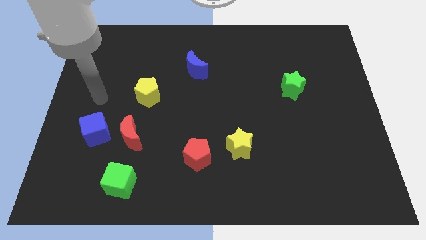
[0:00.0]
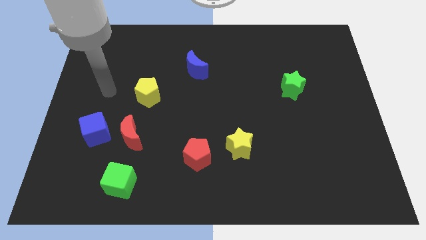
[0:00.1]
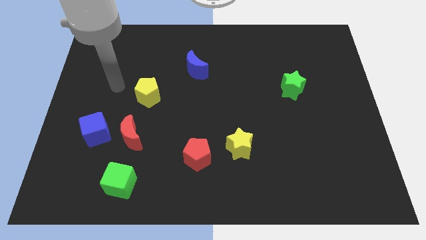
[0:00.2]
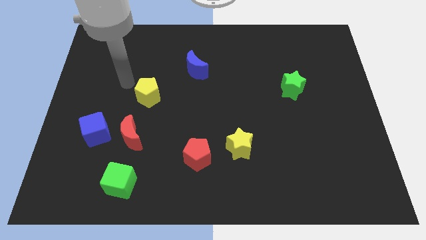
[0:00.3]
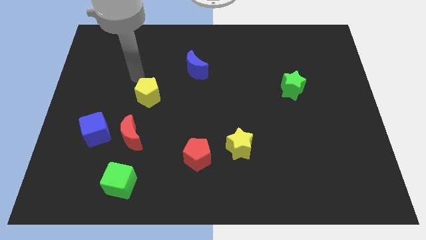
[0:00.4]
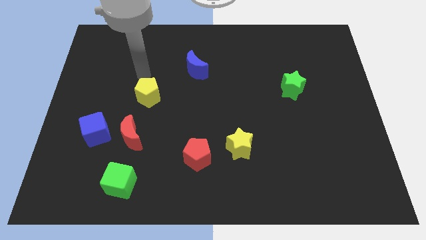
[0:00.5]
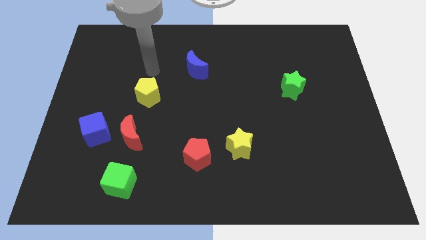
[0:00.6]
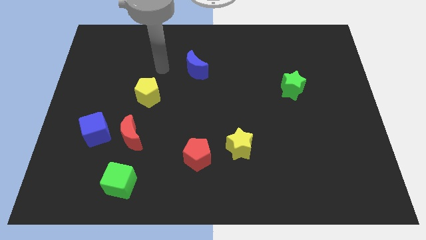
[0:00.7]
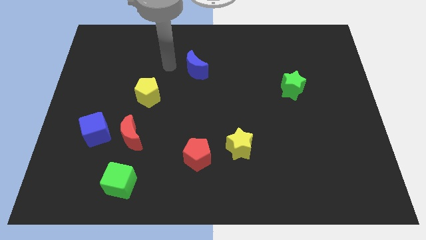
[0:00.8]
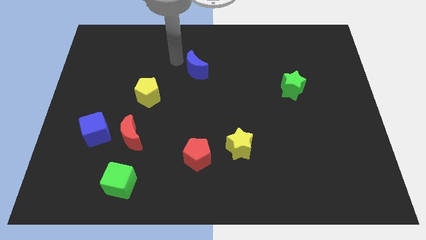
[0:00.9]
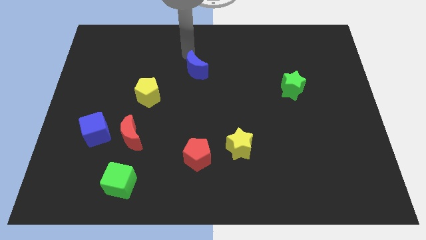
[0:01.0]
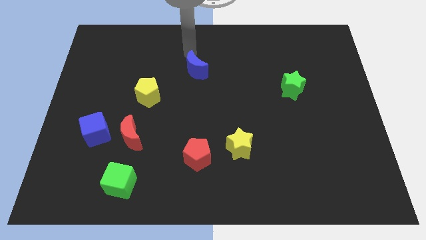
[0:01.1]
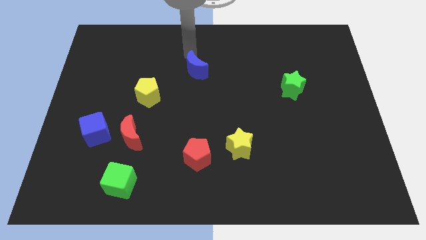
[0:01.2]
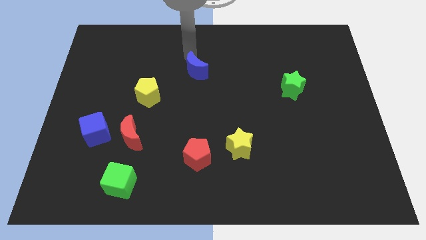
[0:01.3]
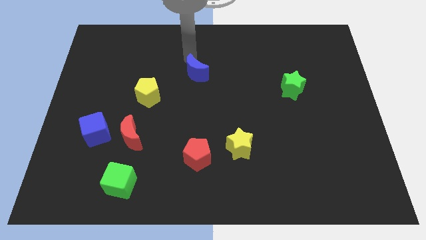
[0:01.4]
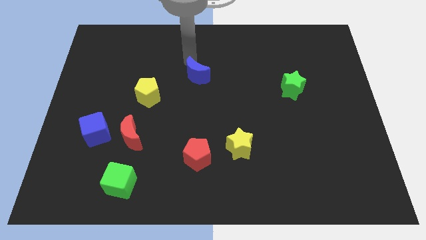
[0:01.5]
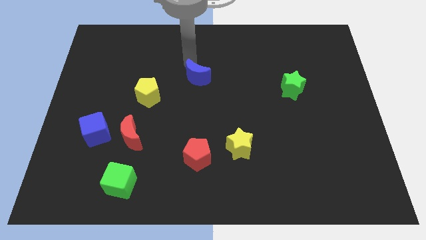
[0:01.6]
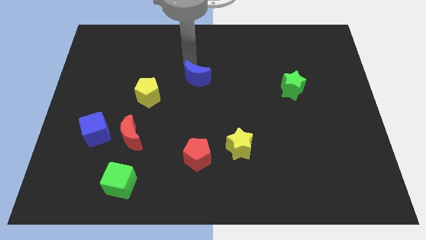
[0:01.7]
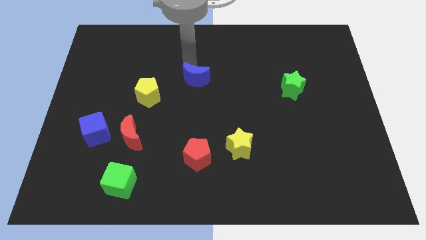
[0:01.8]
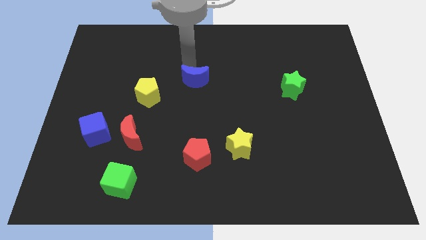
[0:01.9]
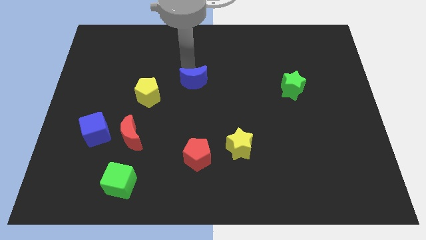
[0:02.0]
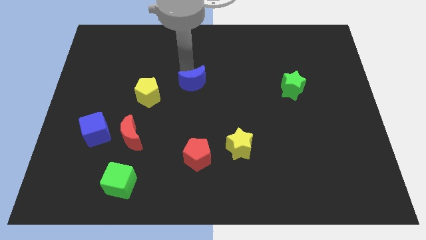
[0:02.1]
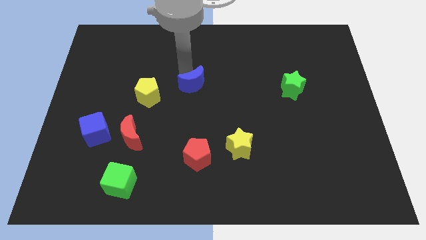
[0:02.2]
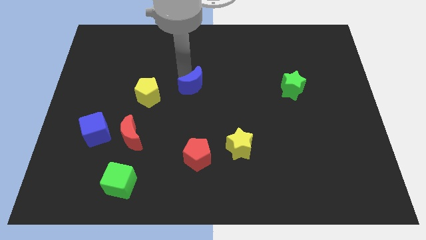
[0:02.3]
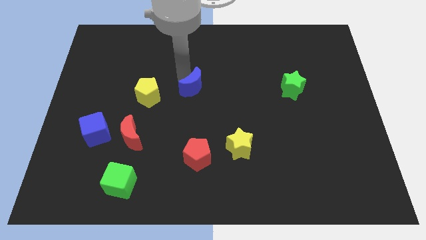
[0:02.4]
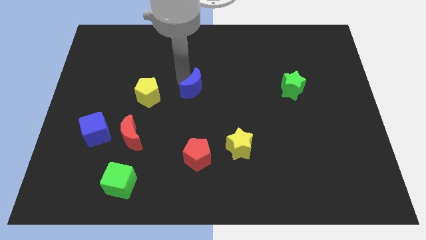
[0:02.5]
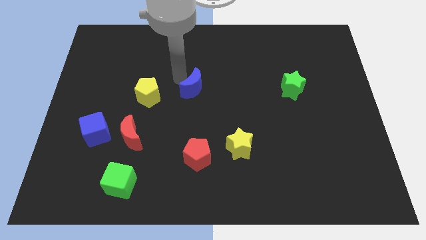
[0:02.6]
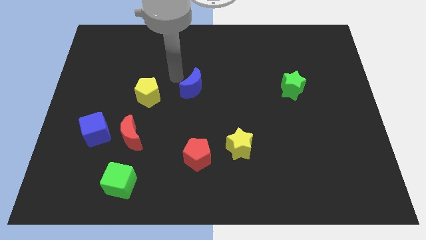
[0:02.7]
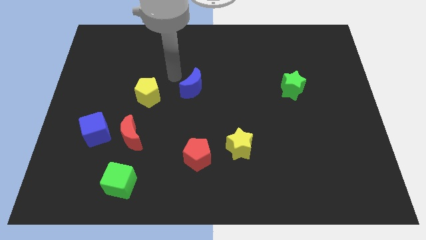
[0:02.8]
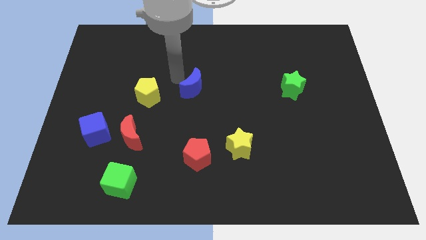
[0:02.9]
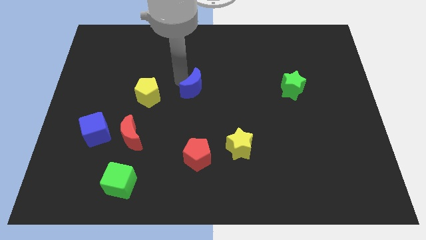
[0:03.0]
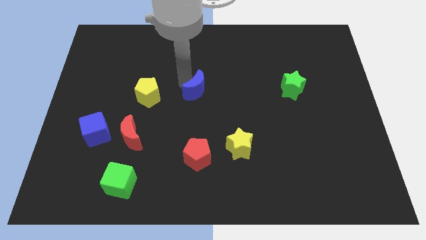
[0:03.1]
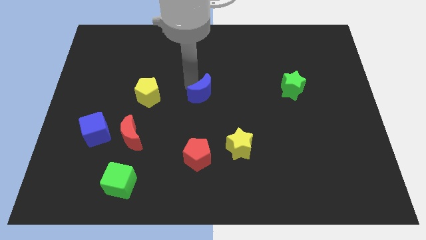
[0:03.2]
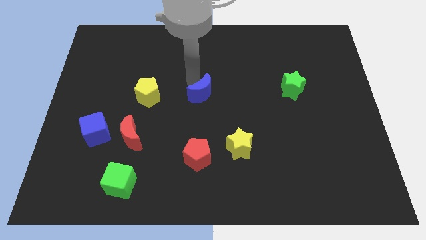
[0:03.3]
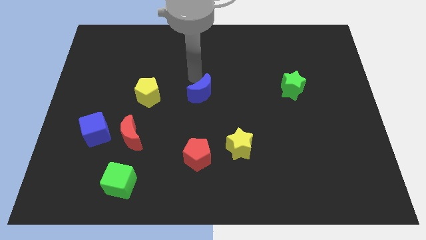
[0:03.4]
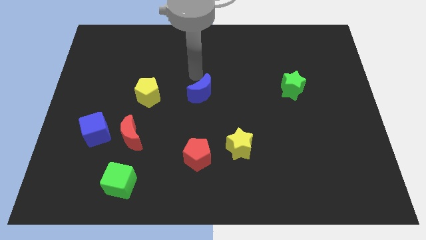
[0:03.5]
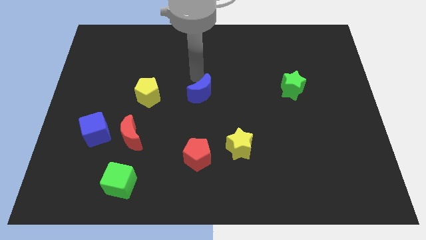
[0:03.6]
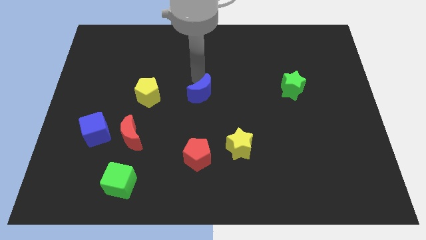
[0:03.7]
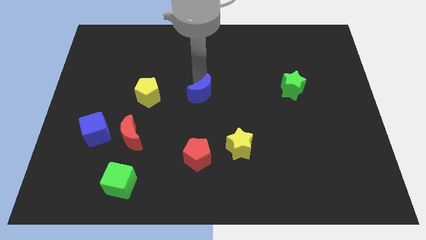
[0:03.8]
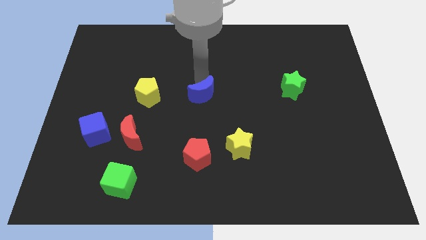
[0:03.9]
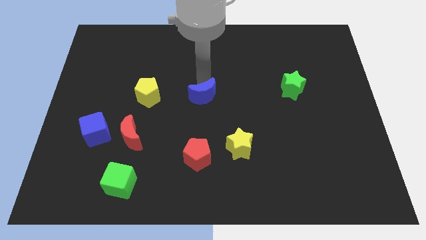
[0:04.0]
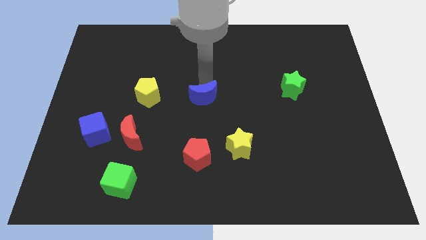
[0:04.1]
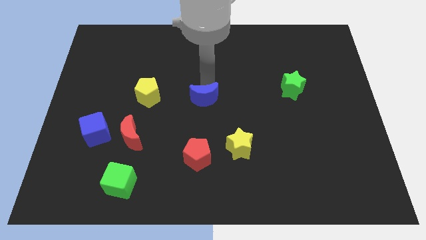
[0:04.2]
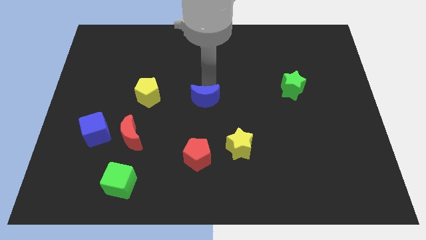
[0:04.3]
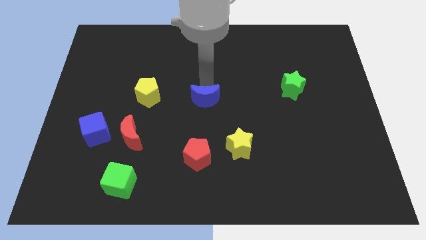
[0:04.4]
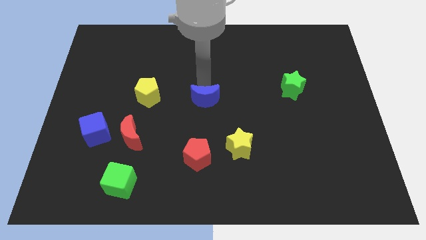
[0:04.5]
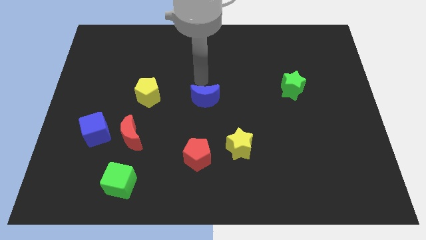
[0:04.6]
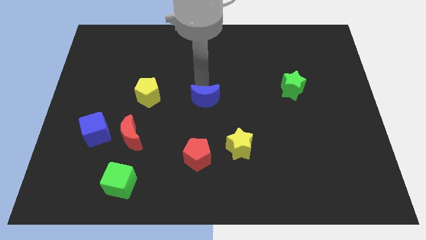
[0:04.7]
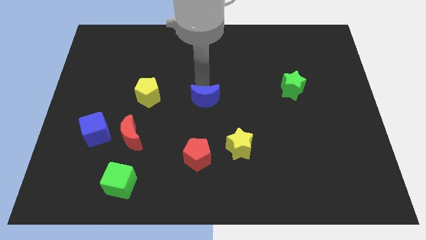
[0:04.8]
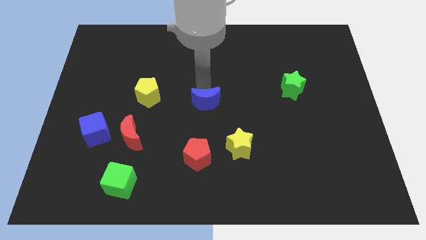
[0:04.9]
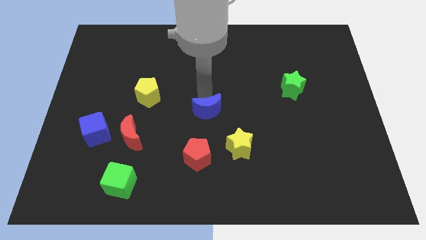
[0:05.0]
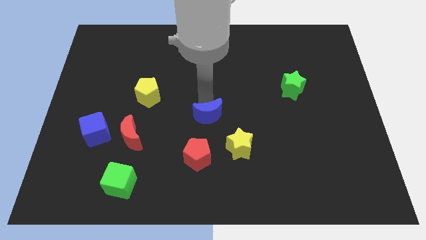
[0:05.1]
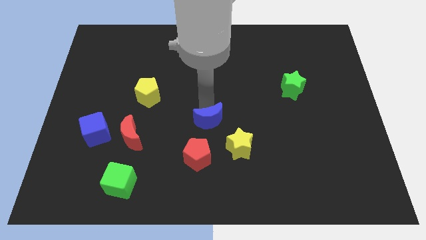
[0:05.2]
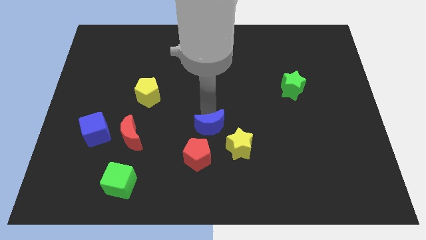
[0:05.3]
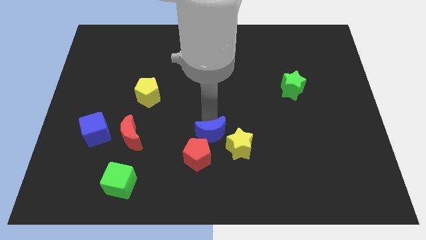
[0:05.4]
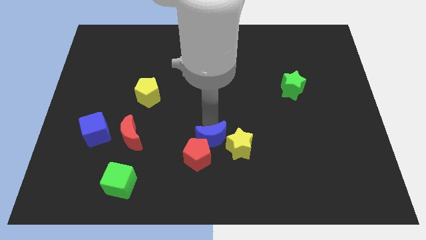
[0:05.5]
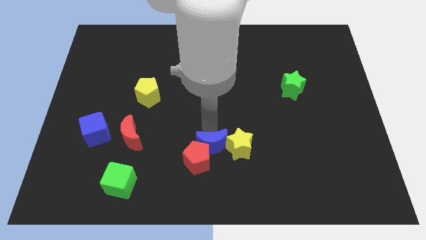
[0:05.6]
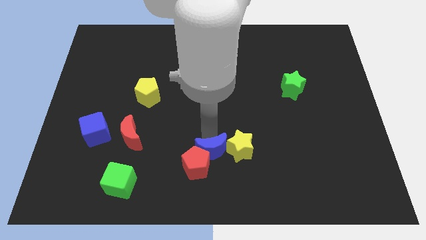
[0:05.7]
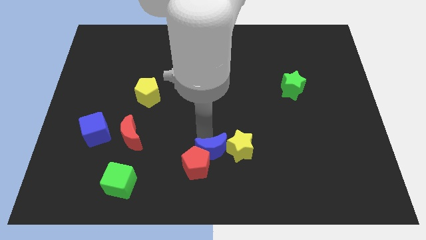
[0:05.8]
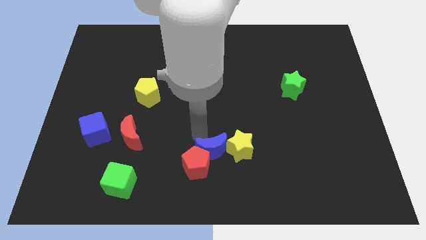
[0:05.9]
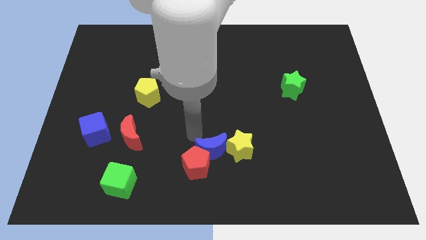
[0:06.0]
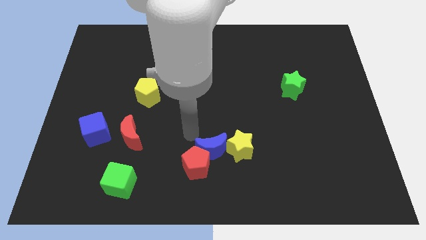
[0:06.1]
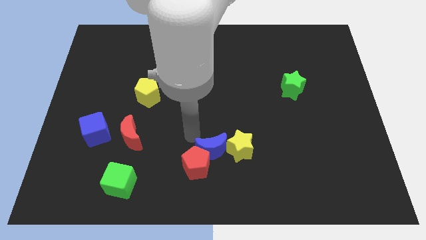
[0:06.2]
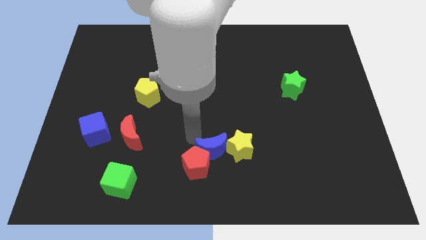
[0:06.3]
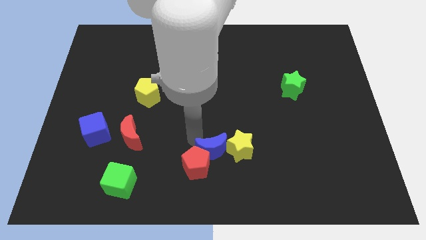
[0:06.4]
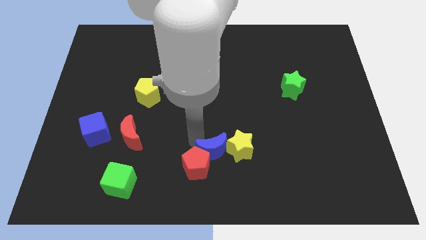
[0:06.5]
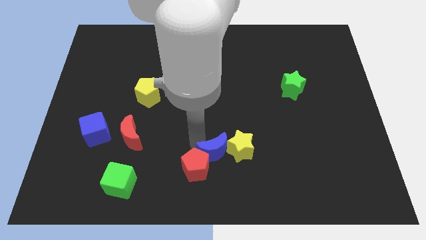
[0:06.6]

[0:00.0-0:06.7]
move the blue moon to the bottom side
